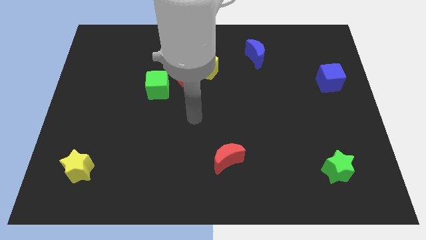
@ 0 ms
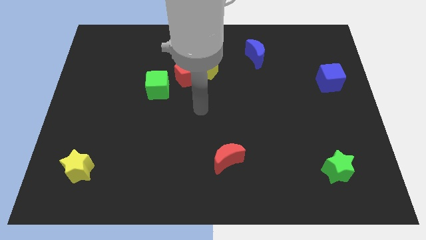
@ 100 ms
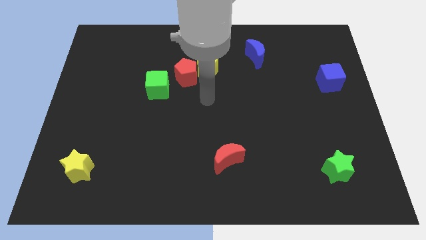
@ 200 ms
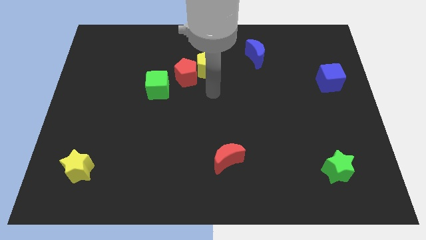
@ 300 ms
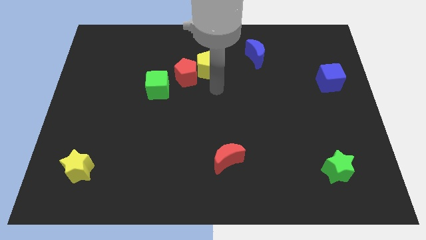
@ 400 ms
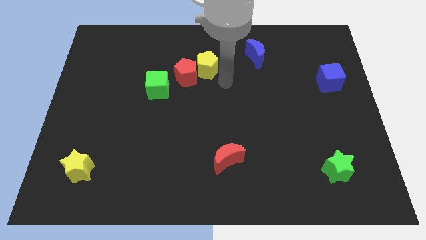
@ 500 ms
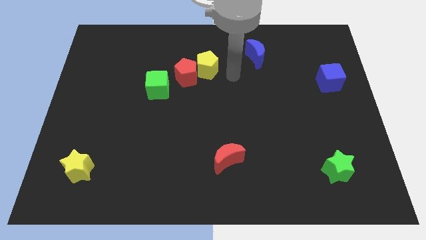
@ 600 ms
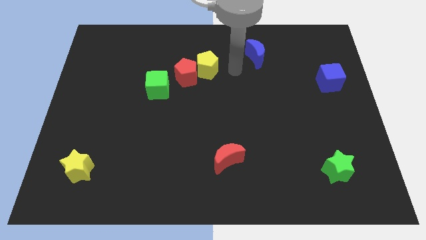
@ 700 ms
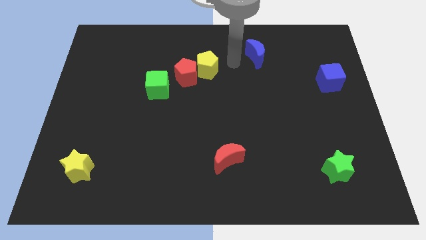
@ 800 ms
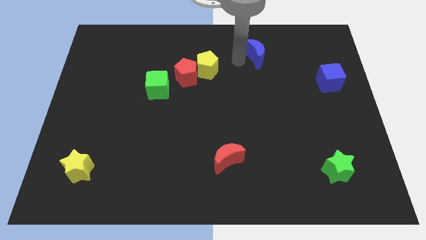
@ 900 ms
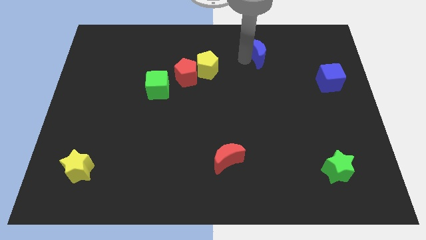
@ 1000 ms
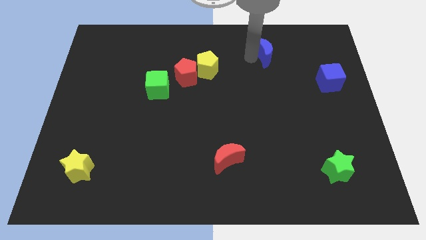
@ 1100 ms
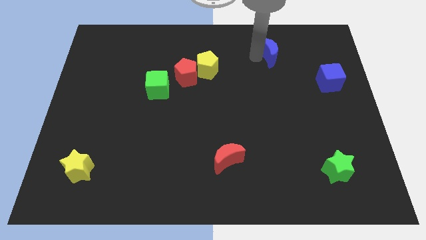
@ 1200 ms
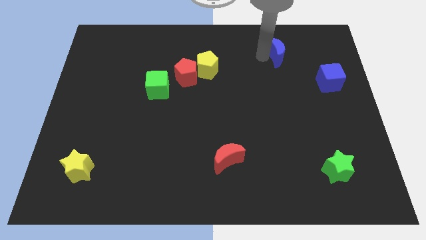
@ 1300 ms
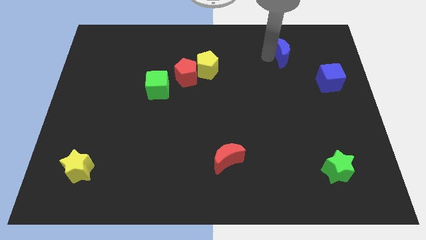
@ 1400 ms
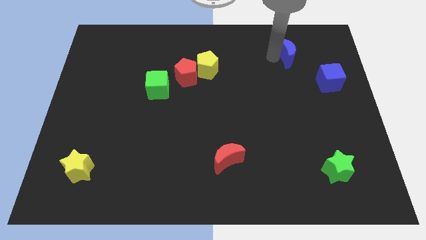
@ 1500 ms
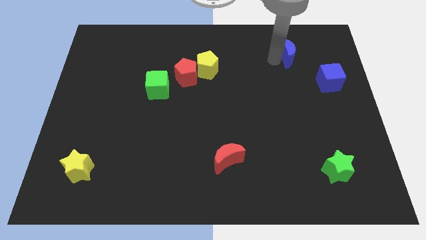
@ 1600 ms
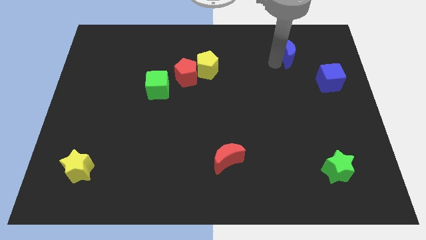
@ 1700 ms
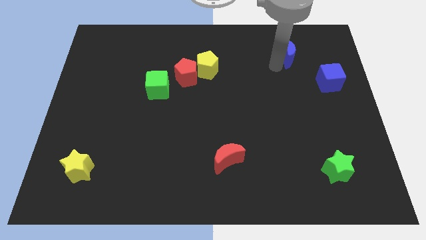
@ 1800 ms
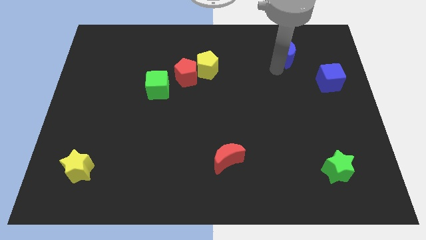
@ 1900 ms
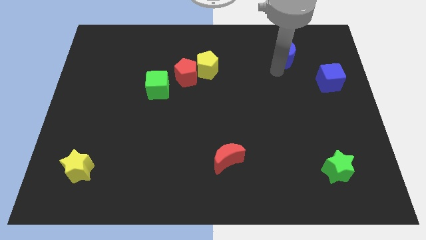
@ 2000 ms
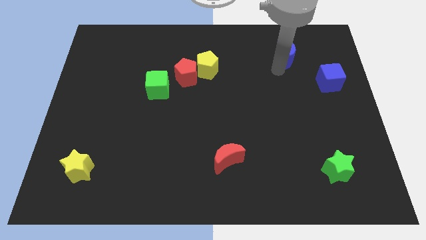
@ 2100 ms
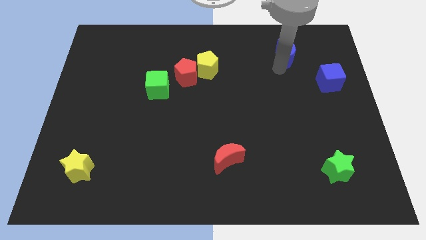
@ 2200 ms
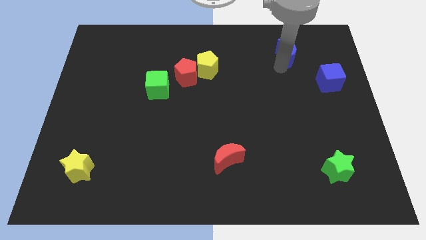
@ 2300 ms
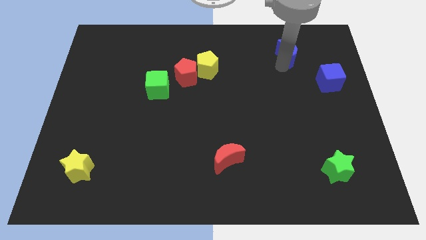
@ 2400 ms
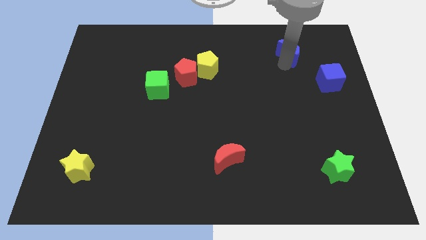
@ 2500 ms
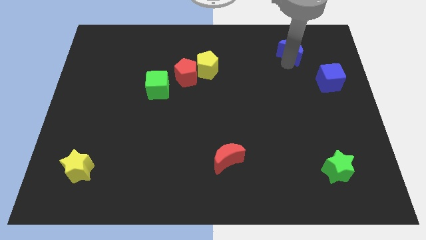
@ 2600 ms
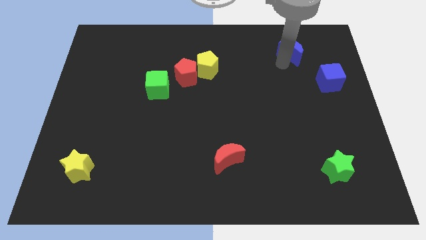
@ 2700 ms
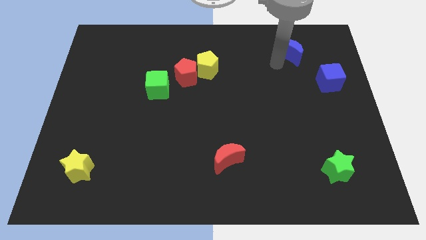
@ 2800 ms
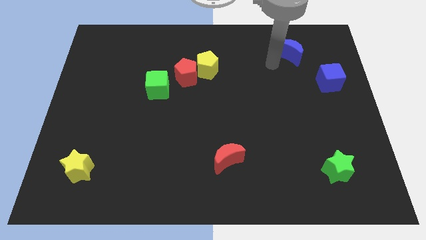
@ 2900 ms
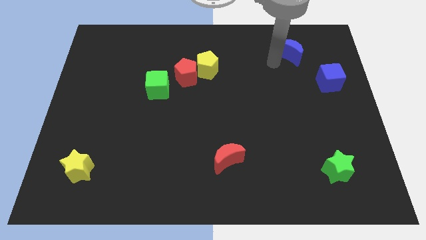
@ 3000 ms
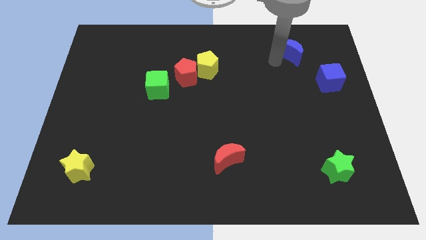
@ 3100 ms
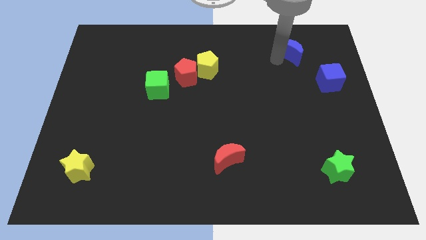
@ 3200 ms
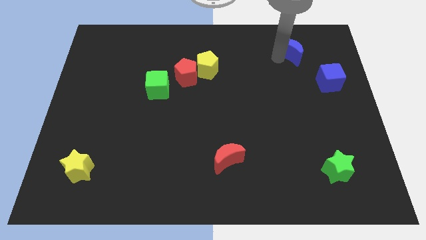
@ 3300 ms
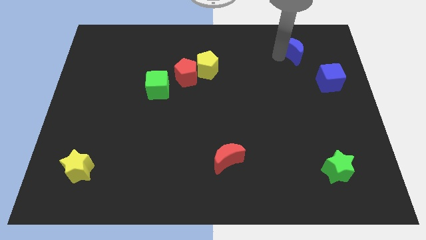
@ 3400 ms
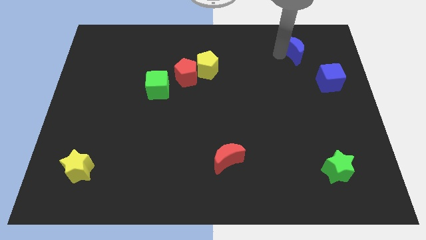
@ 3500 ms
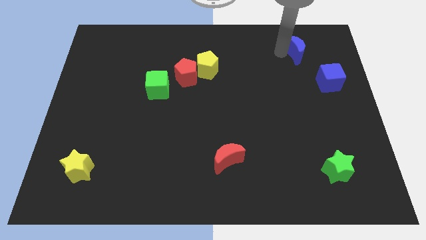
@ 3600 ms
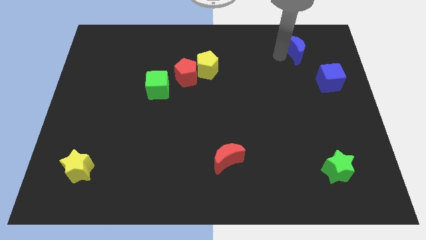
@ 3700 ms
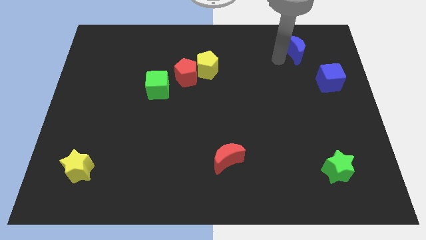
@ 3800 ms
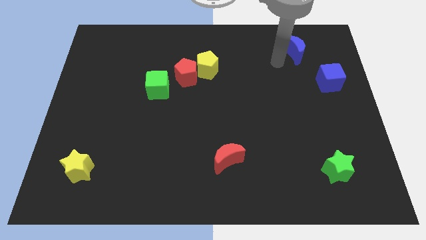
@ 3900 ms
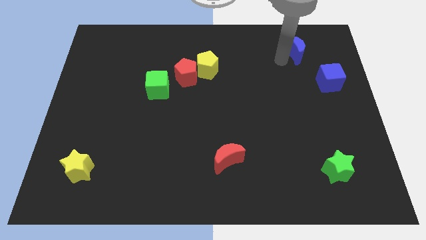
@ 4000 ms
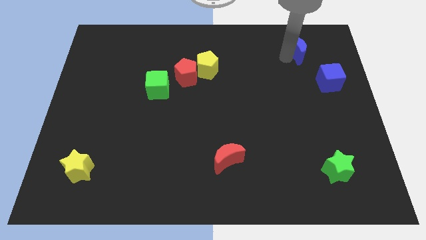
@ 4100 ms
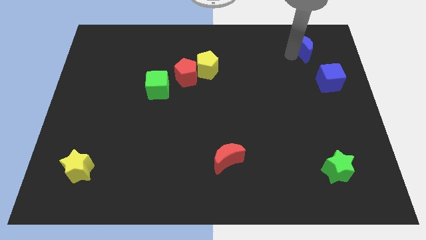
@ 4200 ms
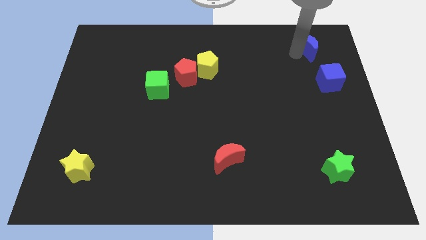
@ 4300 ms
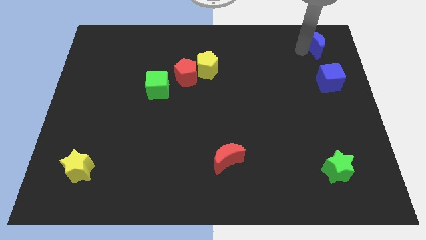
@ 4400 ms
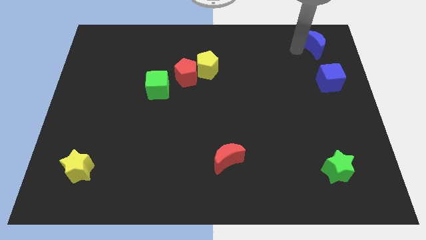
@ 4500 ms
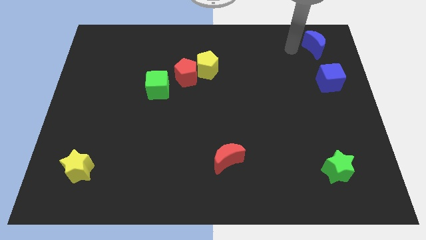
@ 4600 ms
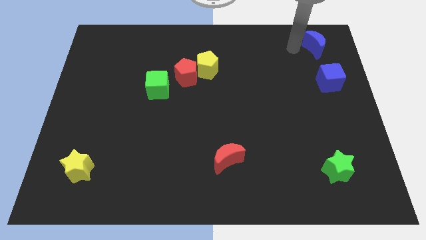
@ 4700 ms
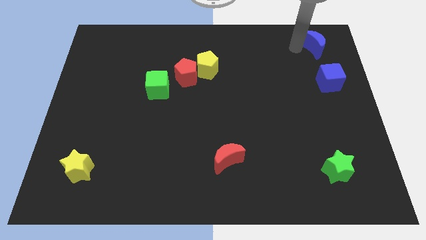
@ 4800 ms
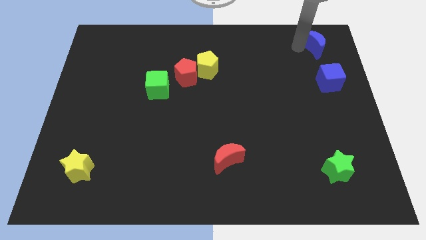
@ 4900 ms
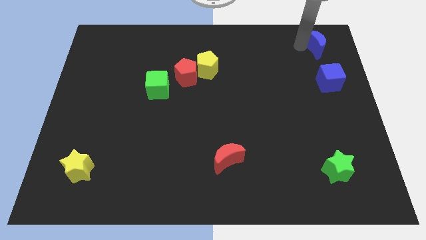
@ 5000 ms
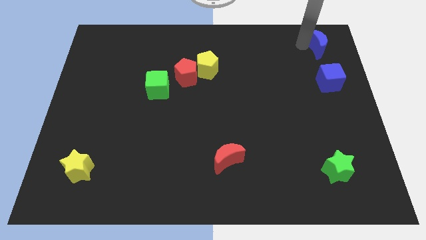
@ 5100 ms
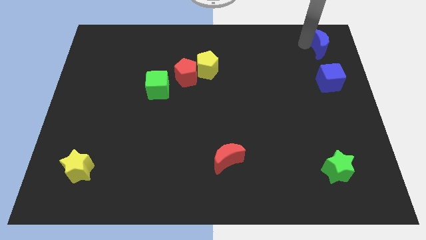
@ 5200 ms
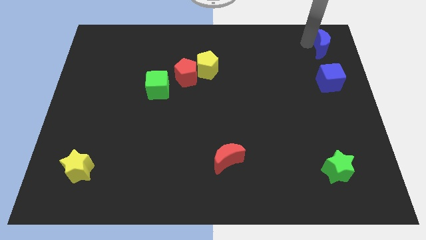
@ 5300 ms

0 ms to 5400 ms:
move the blue moon to the top right corner

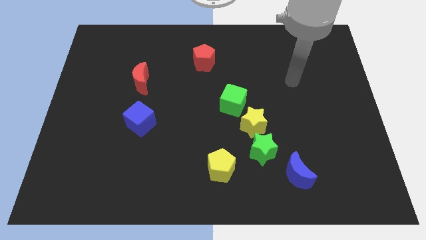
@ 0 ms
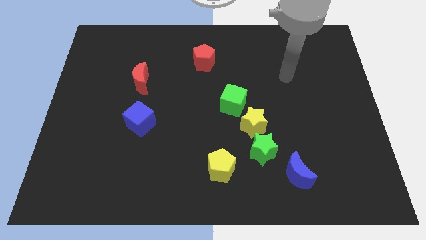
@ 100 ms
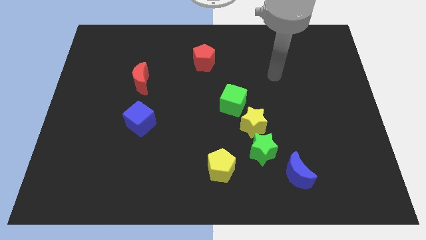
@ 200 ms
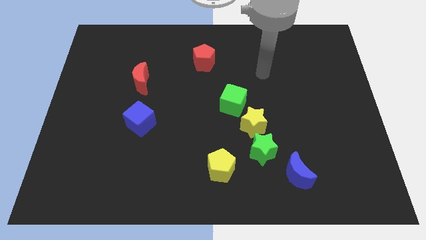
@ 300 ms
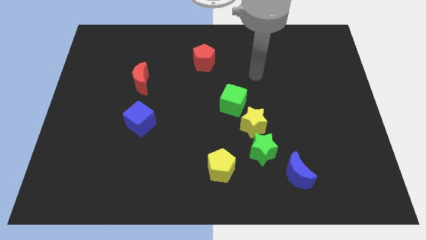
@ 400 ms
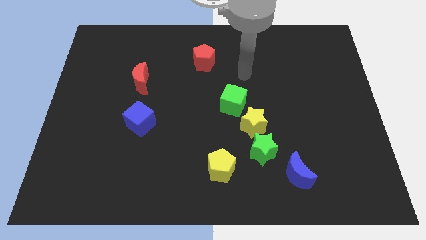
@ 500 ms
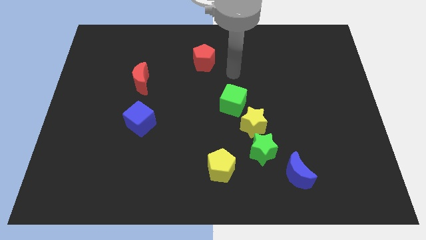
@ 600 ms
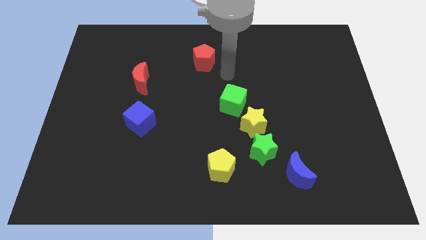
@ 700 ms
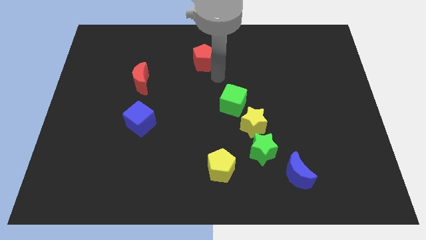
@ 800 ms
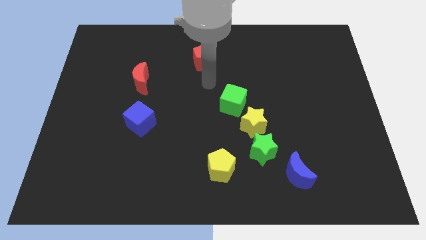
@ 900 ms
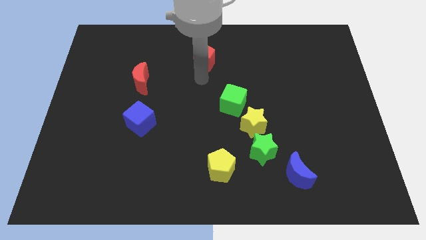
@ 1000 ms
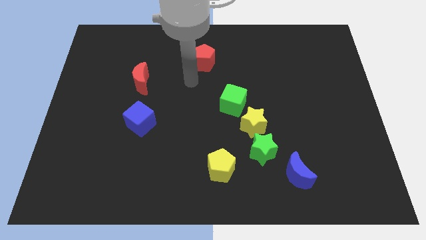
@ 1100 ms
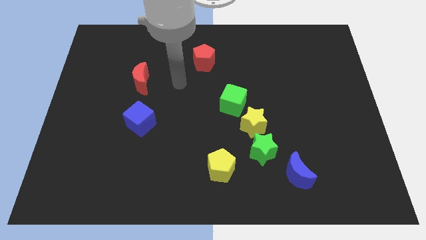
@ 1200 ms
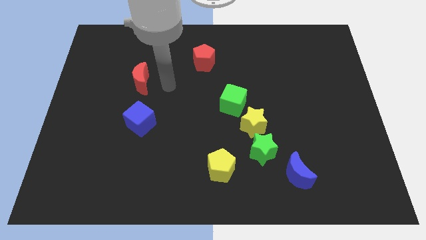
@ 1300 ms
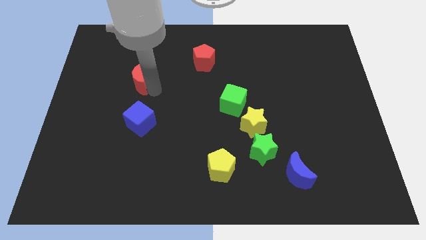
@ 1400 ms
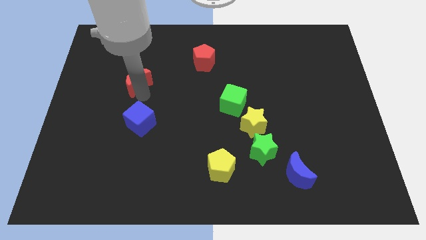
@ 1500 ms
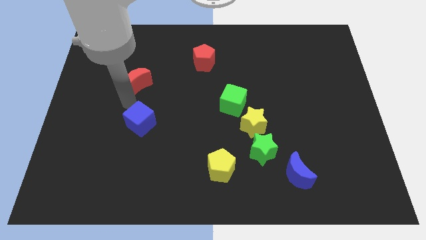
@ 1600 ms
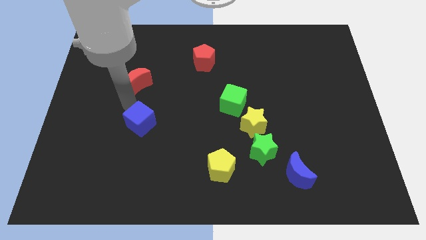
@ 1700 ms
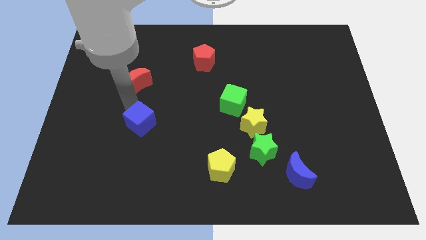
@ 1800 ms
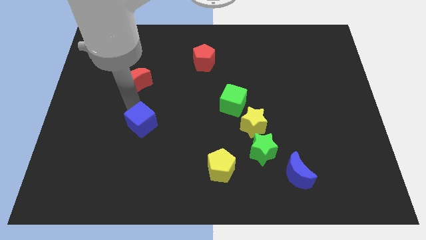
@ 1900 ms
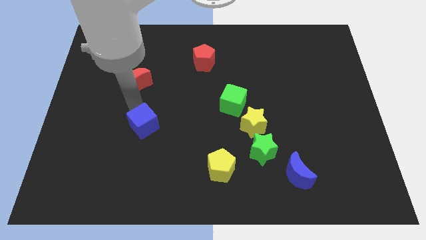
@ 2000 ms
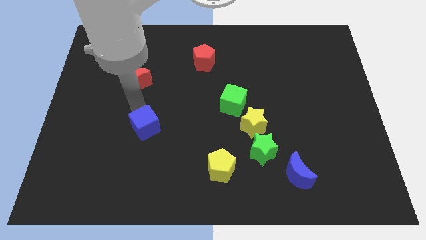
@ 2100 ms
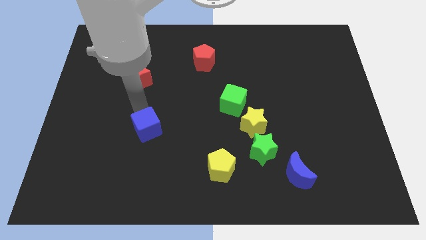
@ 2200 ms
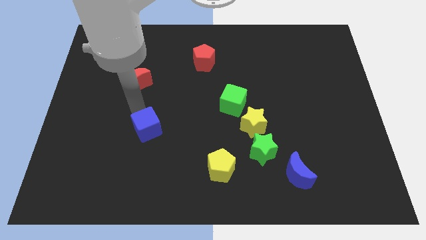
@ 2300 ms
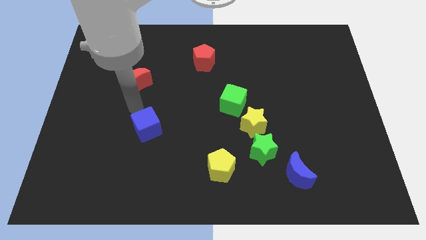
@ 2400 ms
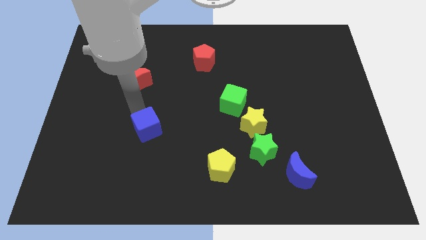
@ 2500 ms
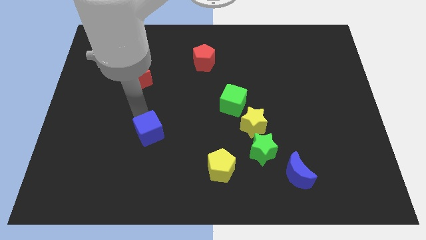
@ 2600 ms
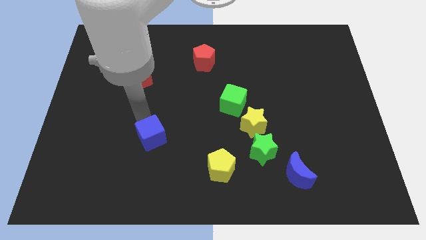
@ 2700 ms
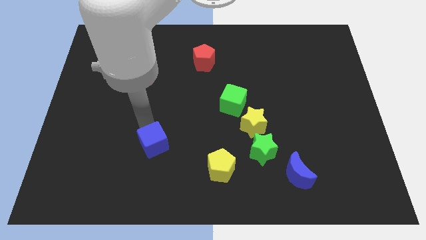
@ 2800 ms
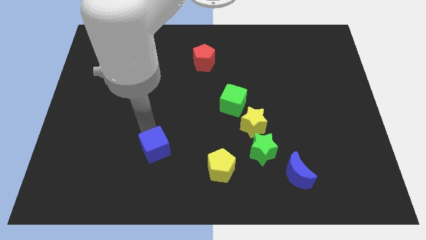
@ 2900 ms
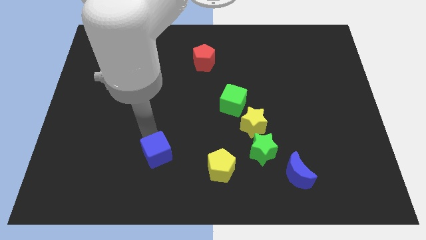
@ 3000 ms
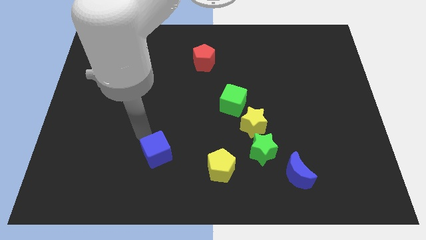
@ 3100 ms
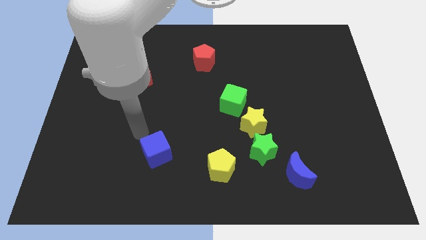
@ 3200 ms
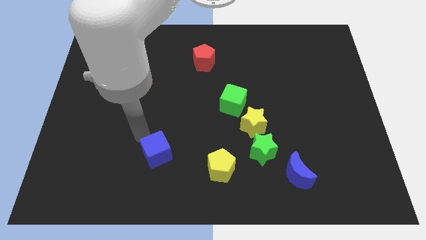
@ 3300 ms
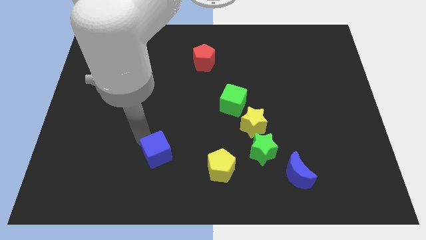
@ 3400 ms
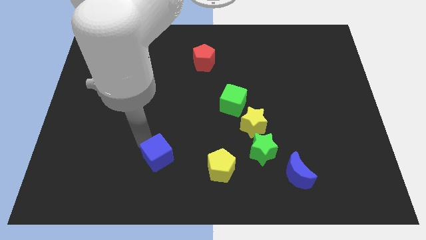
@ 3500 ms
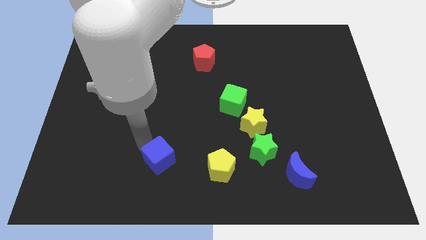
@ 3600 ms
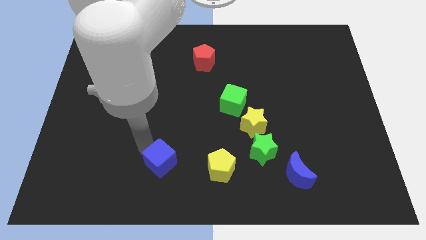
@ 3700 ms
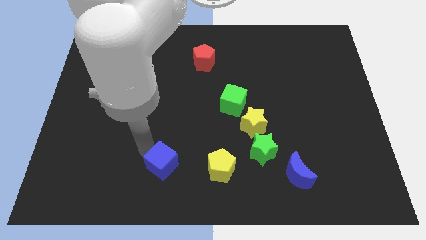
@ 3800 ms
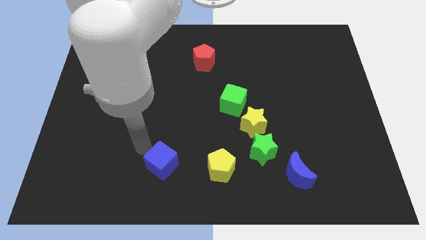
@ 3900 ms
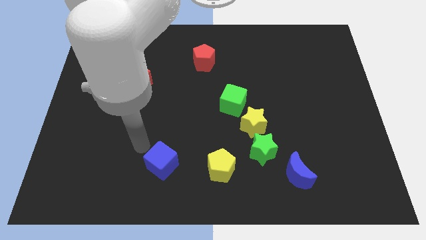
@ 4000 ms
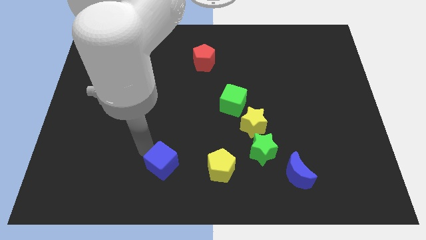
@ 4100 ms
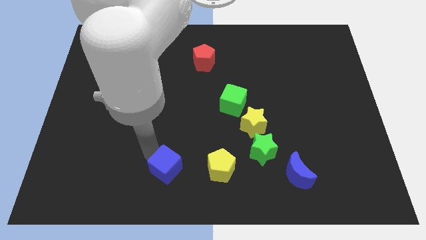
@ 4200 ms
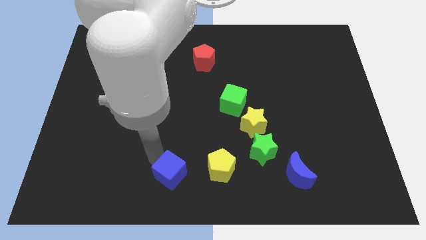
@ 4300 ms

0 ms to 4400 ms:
put the blue cube to the bottom
